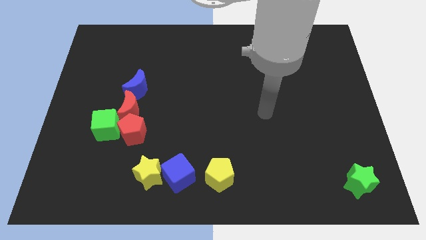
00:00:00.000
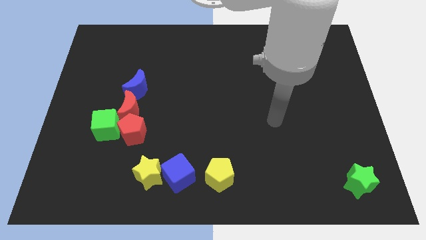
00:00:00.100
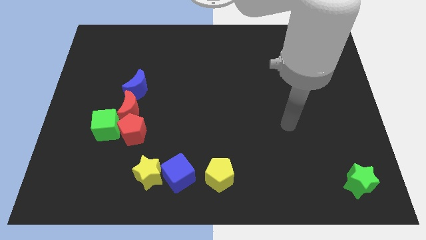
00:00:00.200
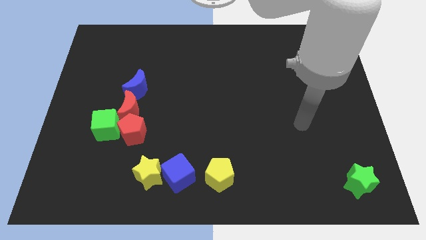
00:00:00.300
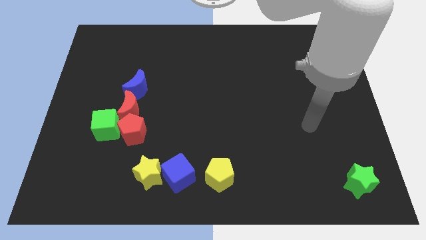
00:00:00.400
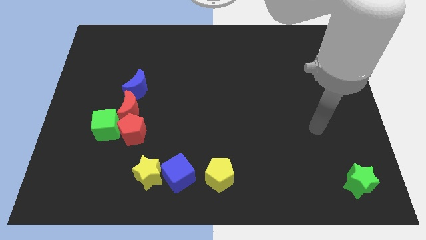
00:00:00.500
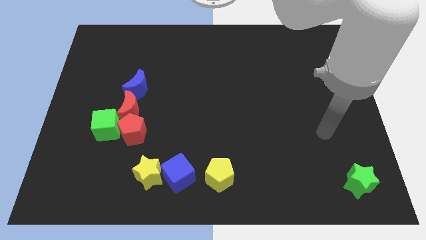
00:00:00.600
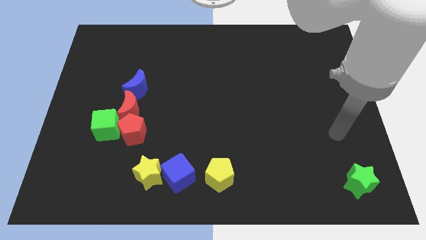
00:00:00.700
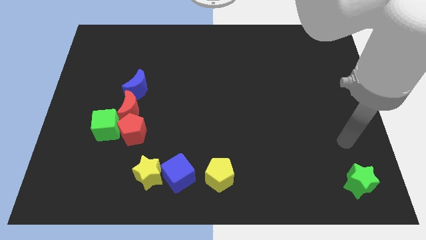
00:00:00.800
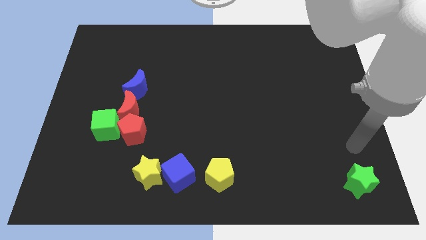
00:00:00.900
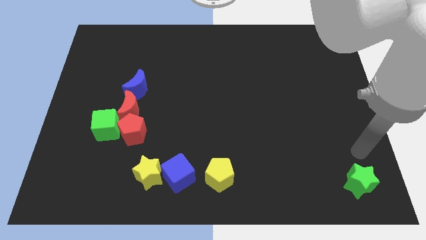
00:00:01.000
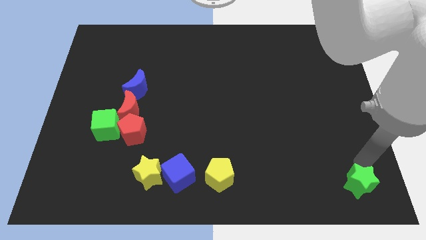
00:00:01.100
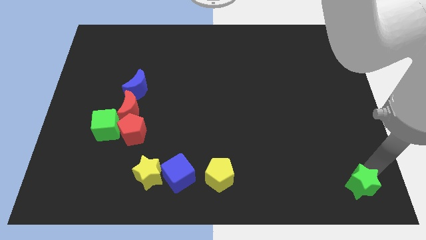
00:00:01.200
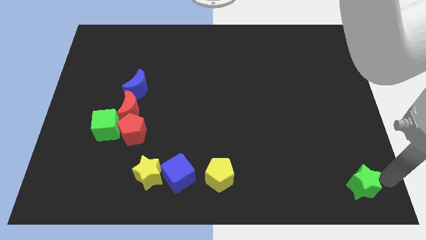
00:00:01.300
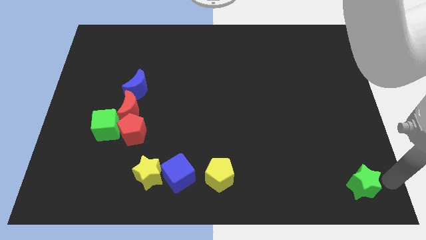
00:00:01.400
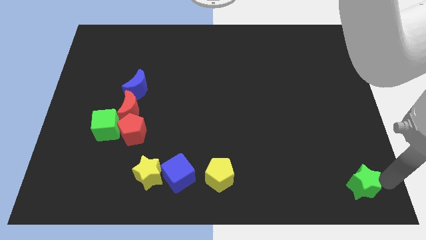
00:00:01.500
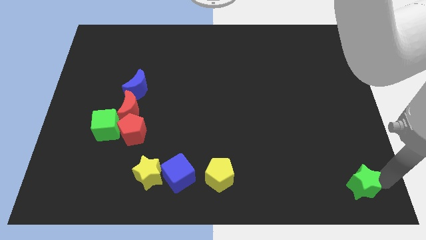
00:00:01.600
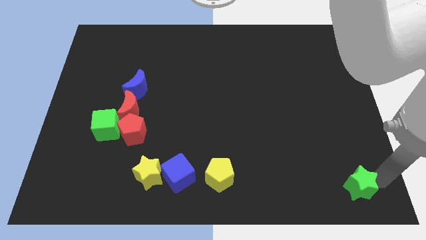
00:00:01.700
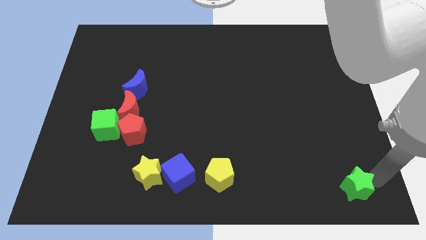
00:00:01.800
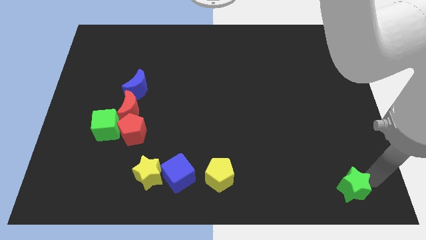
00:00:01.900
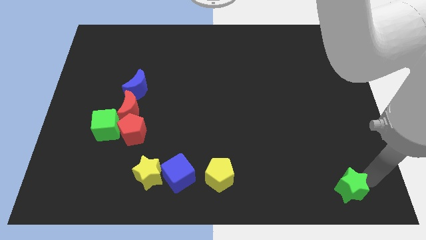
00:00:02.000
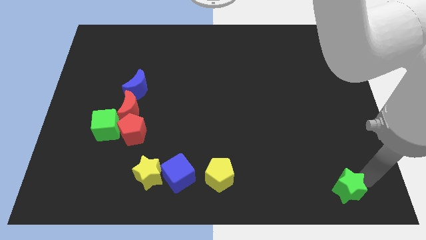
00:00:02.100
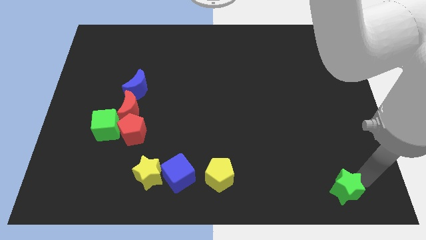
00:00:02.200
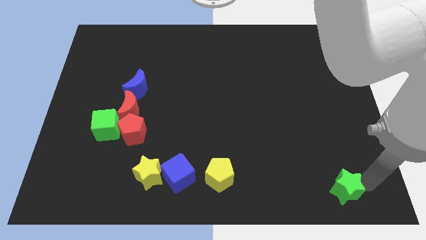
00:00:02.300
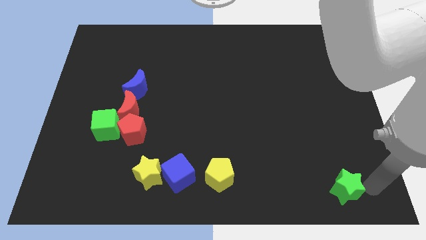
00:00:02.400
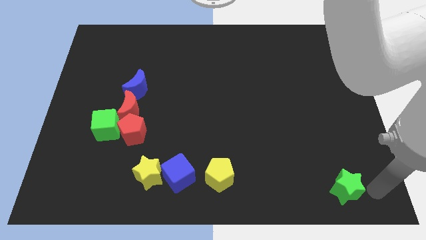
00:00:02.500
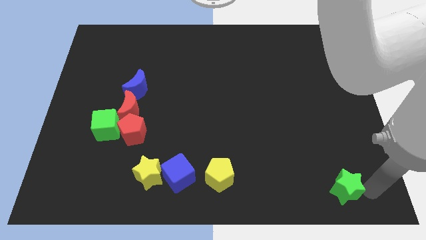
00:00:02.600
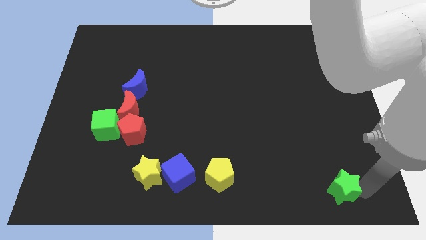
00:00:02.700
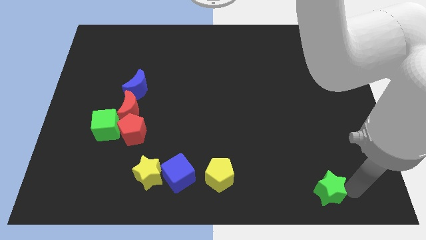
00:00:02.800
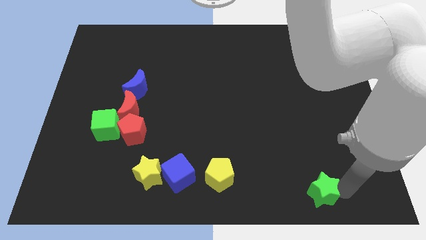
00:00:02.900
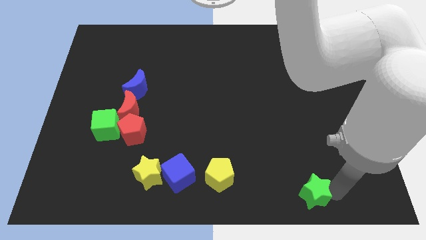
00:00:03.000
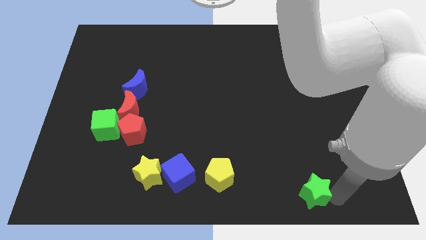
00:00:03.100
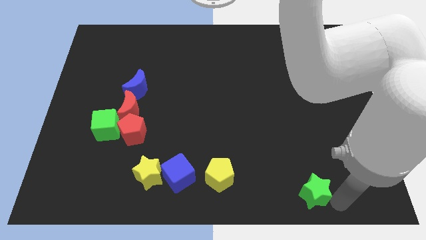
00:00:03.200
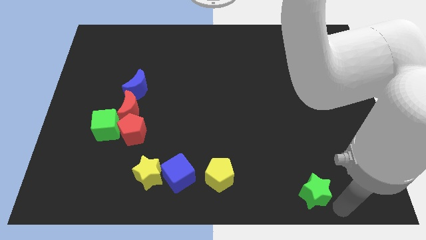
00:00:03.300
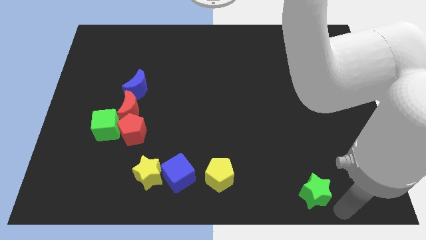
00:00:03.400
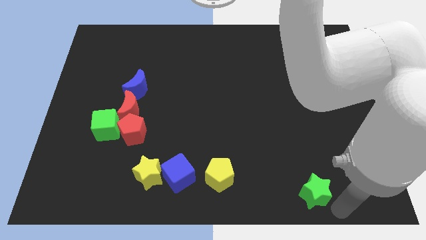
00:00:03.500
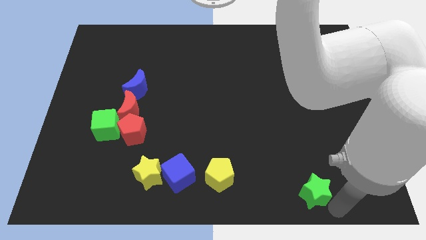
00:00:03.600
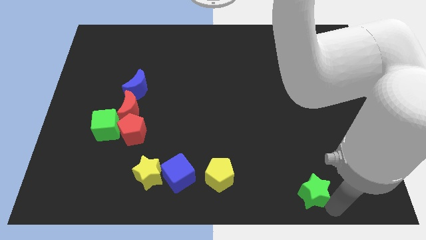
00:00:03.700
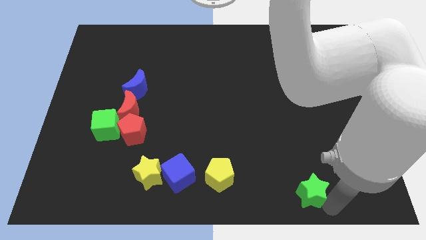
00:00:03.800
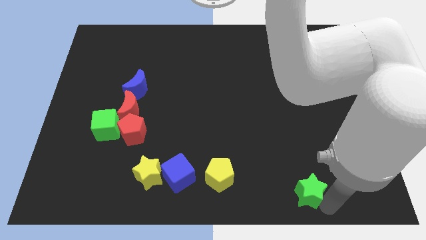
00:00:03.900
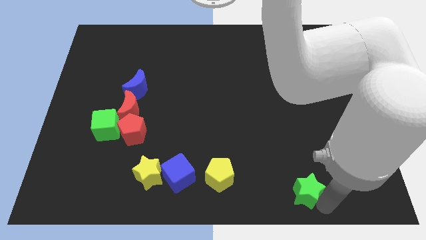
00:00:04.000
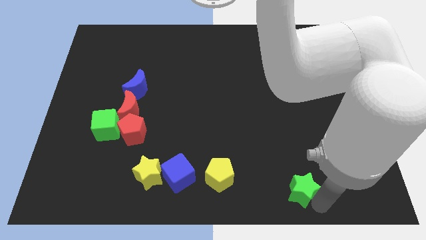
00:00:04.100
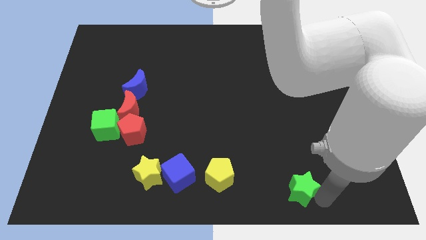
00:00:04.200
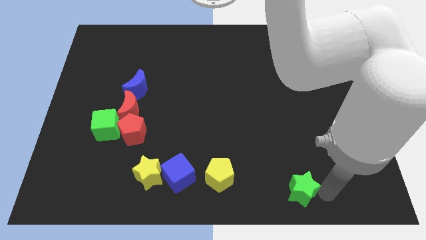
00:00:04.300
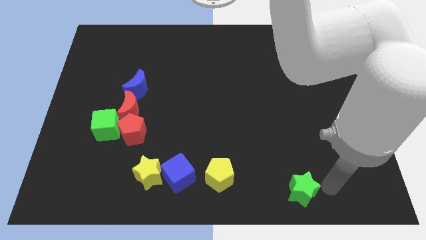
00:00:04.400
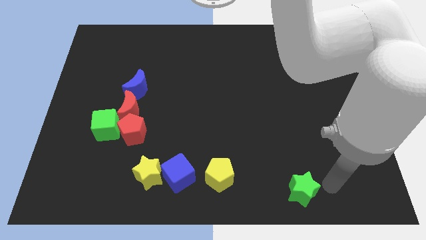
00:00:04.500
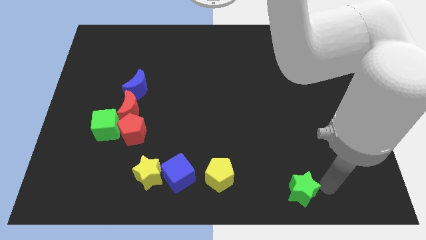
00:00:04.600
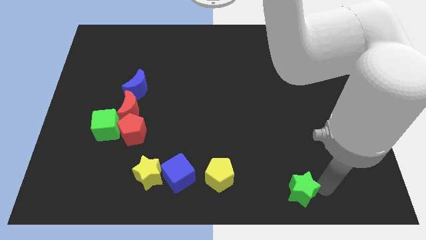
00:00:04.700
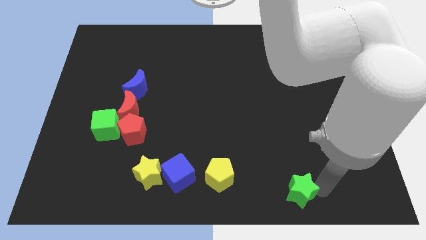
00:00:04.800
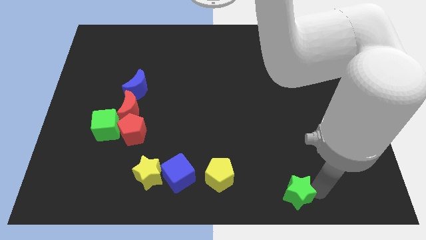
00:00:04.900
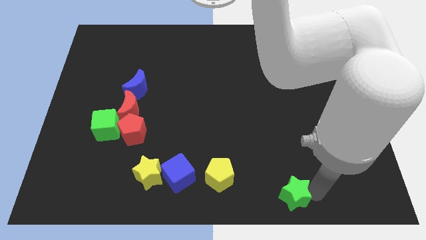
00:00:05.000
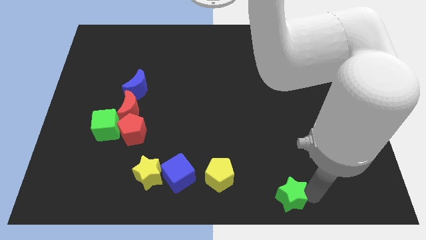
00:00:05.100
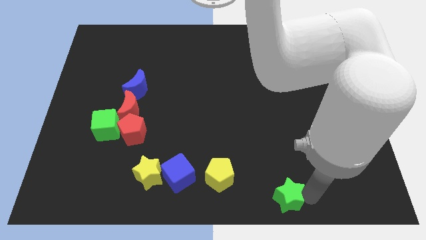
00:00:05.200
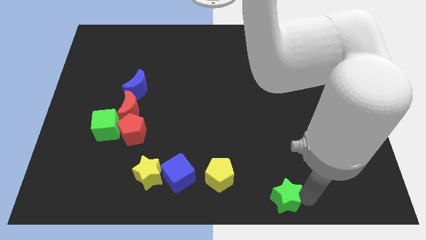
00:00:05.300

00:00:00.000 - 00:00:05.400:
put the green star to the bottom side

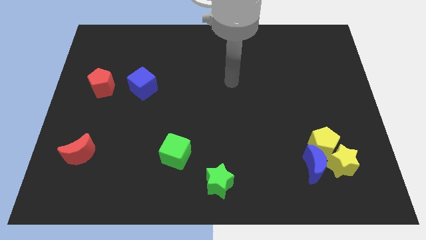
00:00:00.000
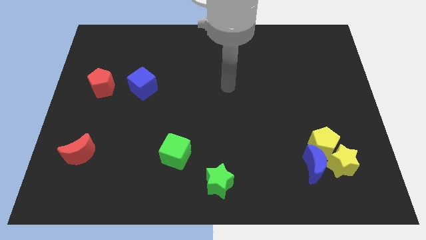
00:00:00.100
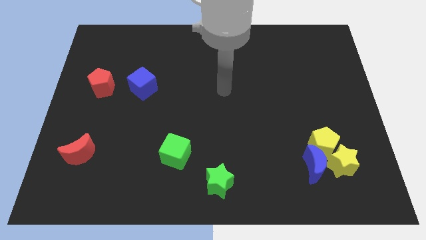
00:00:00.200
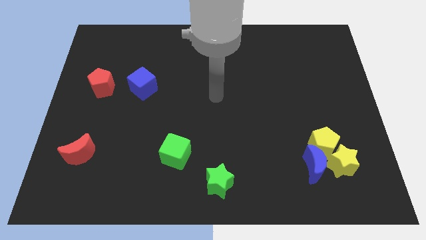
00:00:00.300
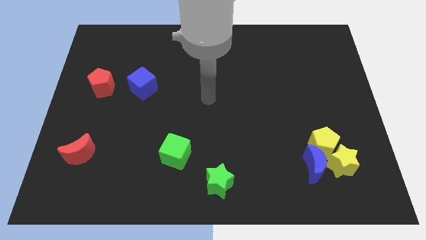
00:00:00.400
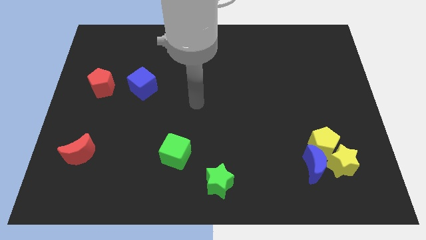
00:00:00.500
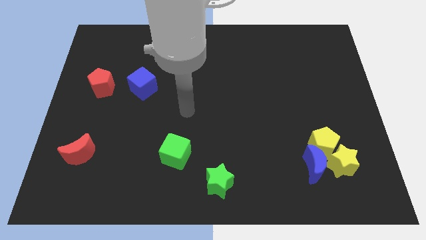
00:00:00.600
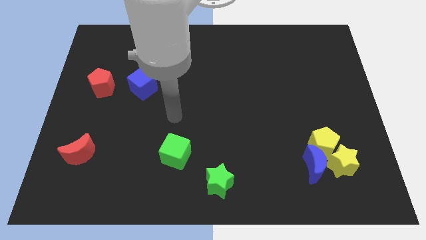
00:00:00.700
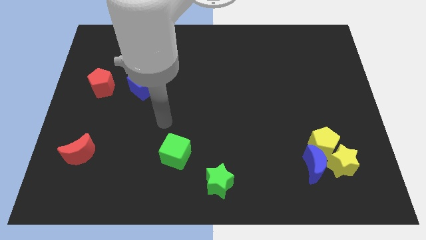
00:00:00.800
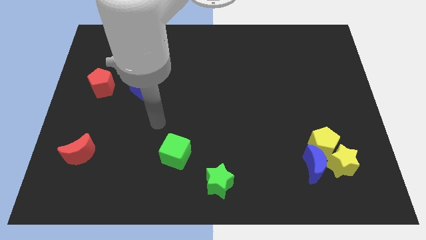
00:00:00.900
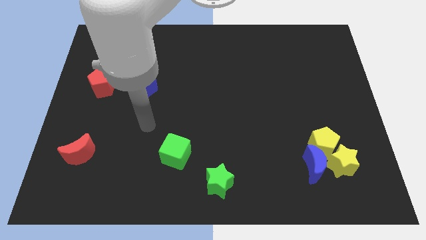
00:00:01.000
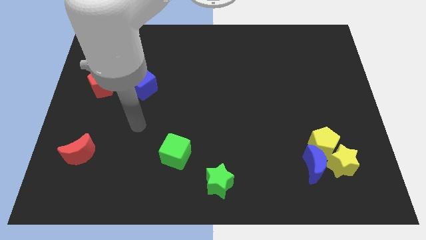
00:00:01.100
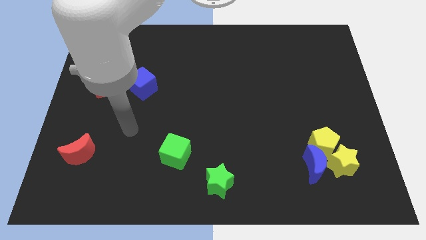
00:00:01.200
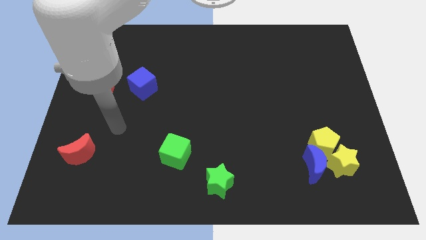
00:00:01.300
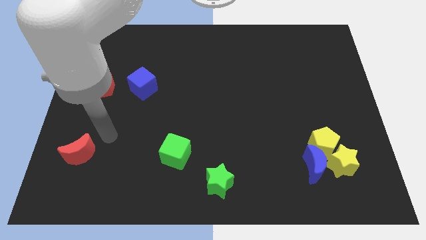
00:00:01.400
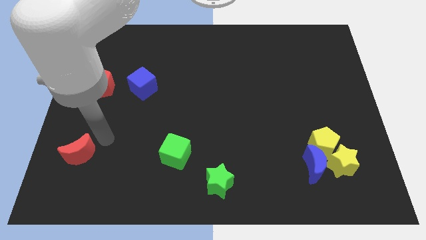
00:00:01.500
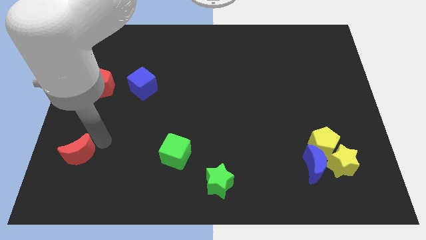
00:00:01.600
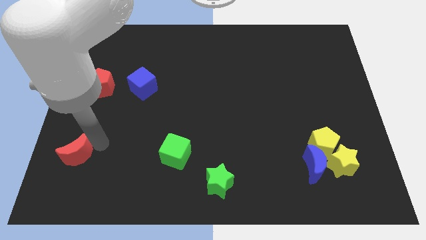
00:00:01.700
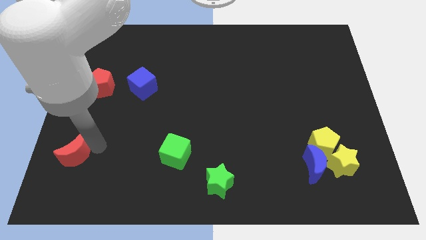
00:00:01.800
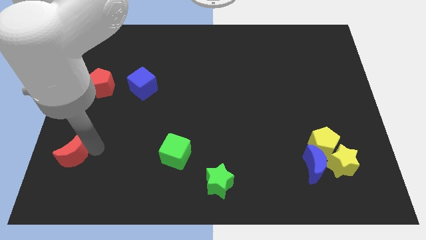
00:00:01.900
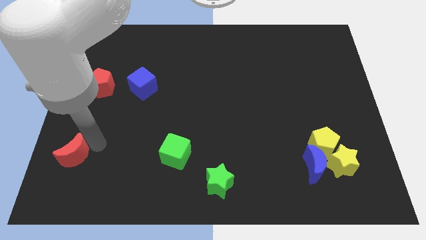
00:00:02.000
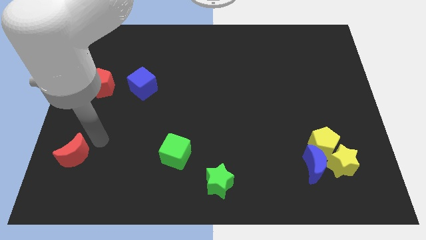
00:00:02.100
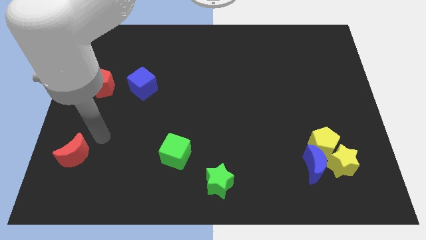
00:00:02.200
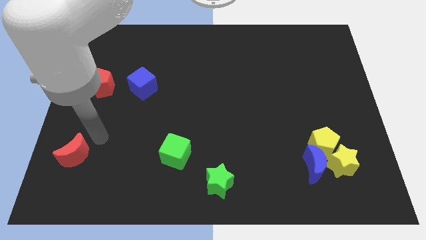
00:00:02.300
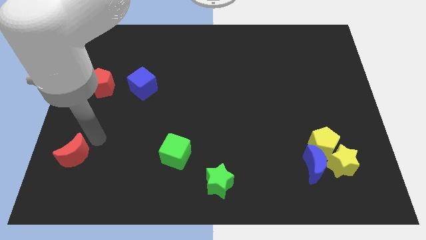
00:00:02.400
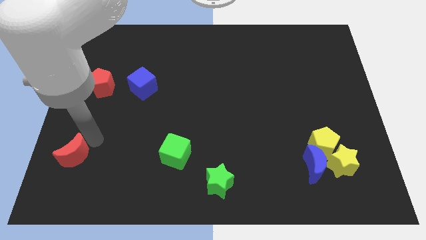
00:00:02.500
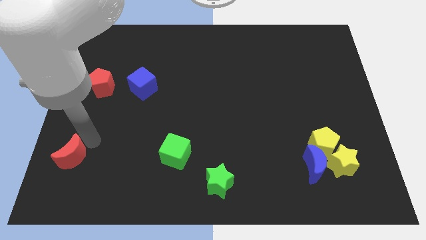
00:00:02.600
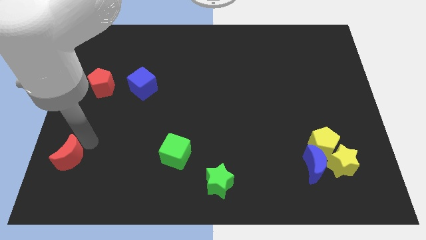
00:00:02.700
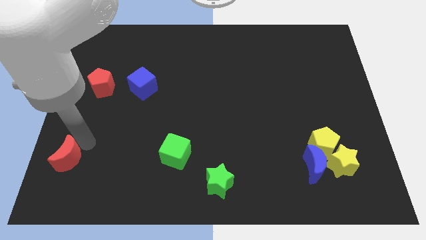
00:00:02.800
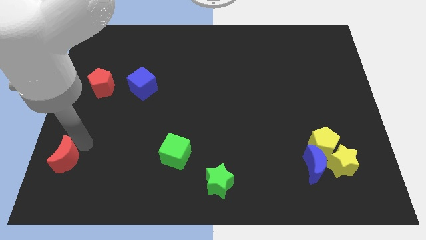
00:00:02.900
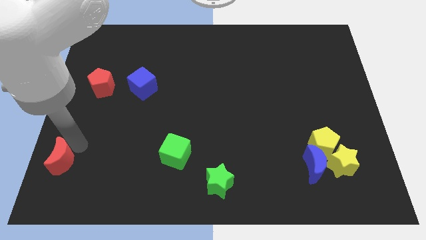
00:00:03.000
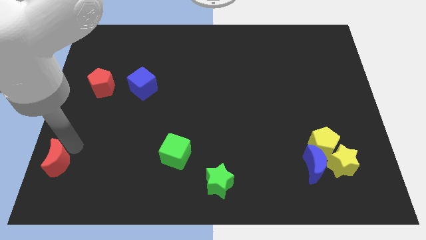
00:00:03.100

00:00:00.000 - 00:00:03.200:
move the red moon to the lower left corner
